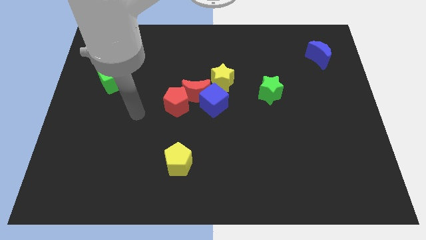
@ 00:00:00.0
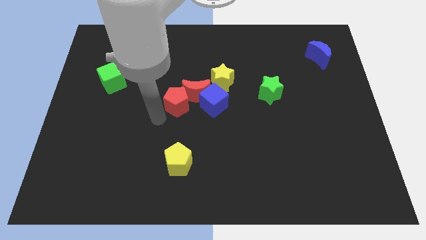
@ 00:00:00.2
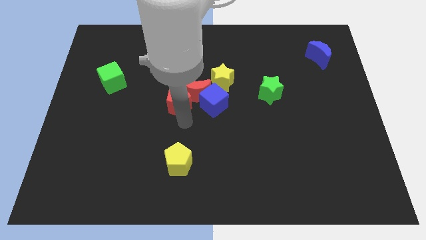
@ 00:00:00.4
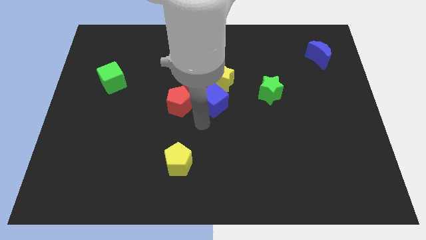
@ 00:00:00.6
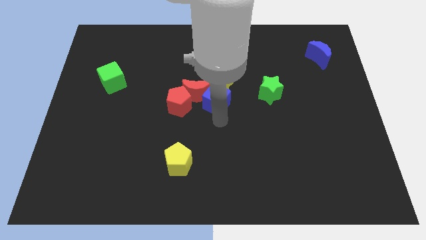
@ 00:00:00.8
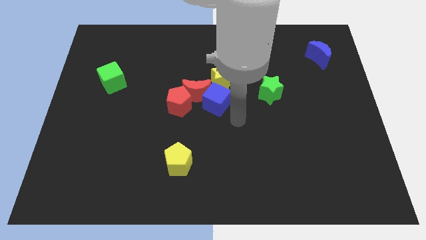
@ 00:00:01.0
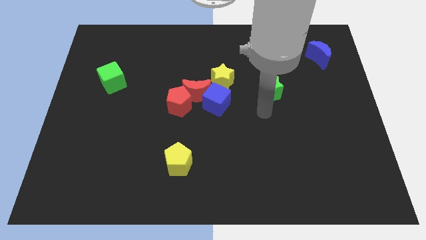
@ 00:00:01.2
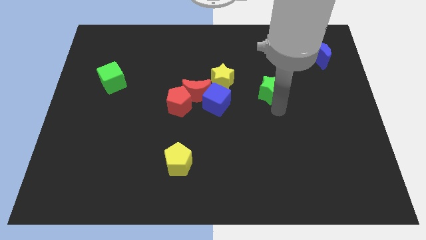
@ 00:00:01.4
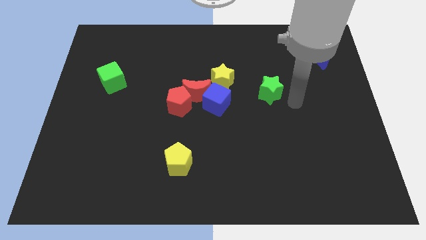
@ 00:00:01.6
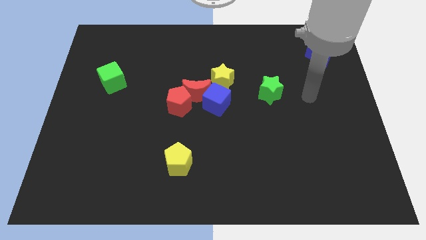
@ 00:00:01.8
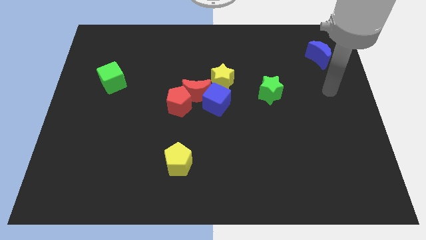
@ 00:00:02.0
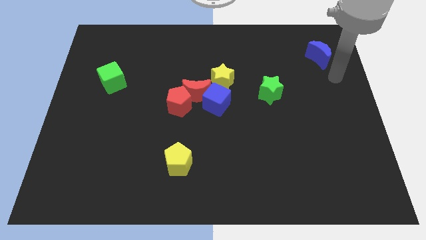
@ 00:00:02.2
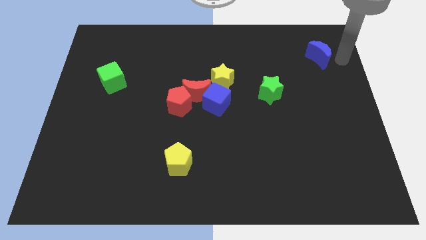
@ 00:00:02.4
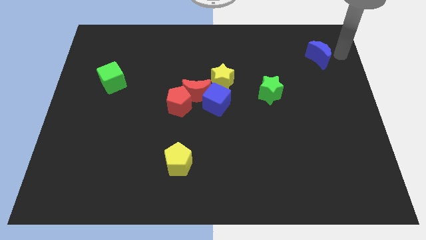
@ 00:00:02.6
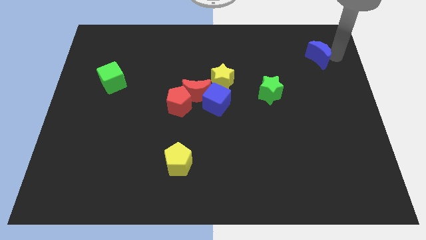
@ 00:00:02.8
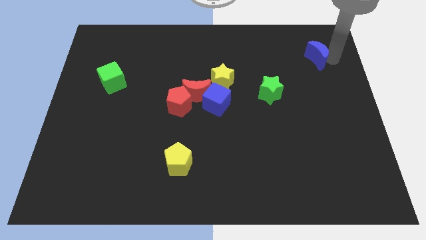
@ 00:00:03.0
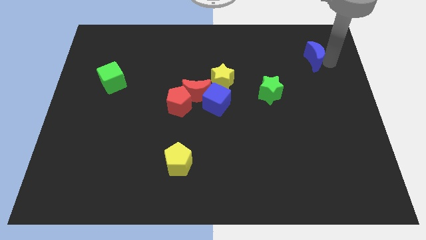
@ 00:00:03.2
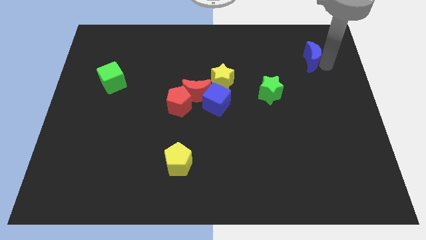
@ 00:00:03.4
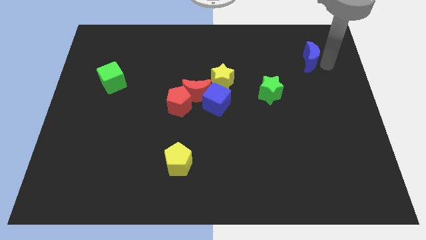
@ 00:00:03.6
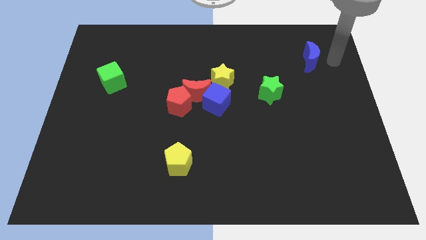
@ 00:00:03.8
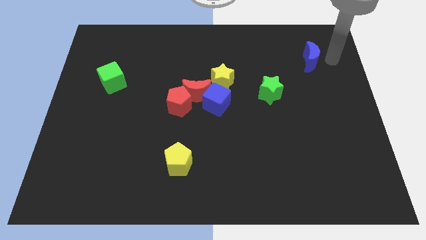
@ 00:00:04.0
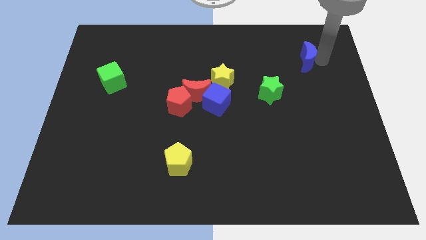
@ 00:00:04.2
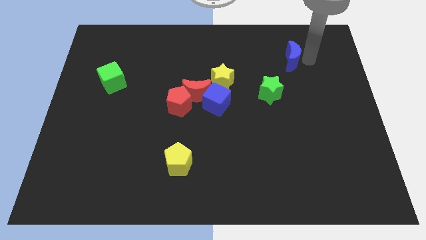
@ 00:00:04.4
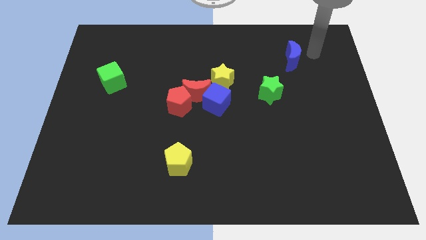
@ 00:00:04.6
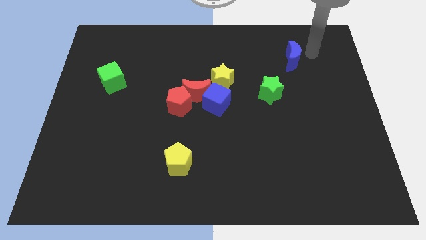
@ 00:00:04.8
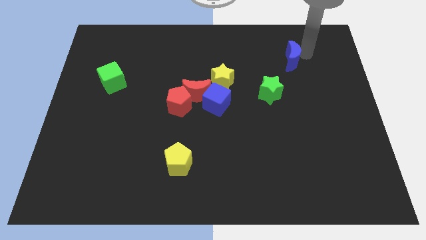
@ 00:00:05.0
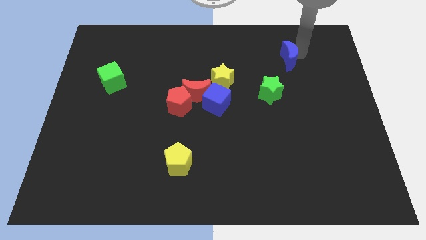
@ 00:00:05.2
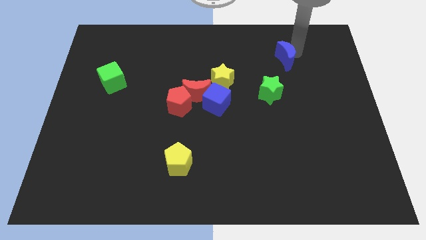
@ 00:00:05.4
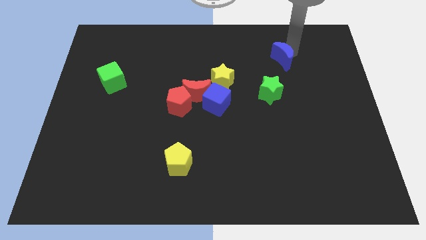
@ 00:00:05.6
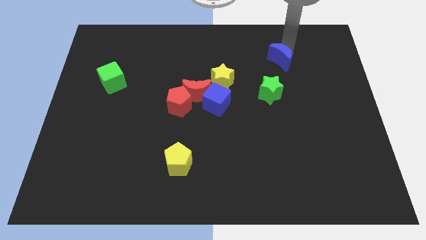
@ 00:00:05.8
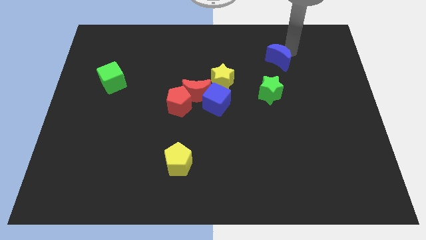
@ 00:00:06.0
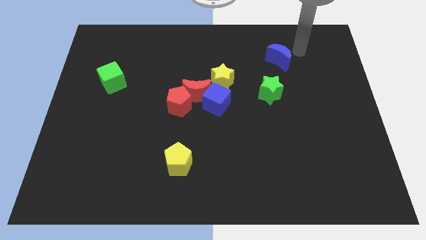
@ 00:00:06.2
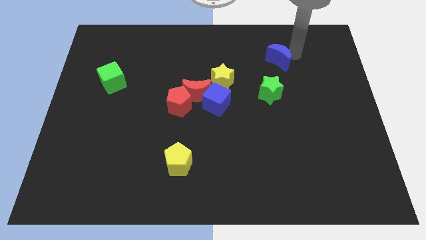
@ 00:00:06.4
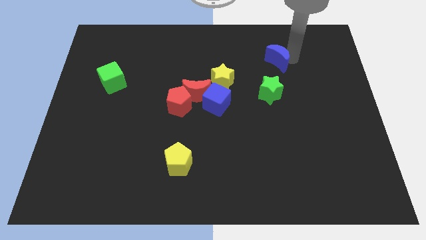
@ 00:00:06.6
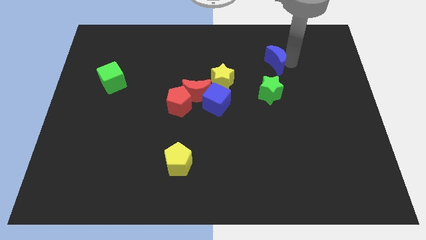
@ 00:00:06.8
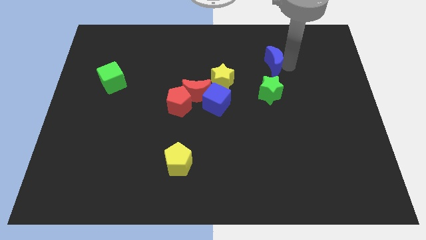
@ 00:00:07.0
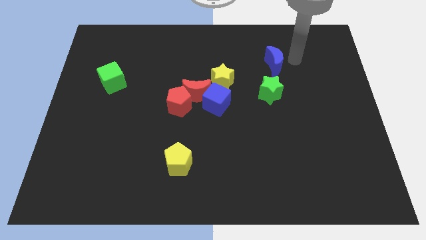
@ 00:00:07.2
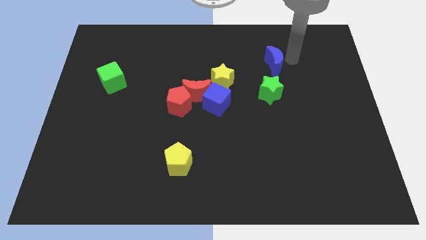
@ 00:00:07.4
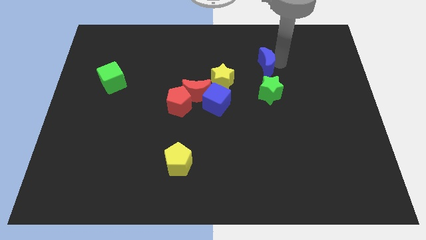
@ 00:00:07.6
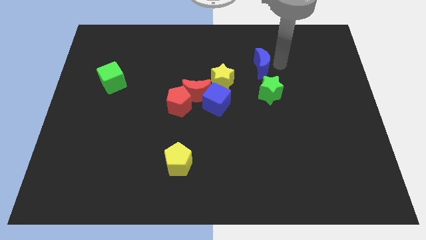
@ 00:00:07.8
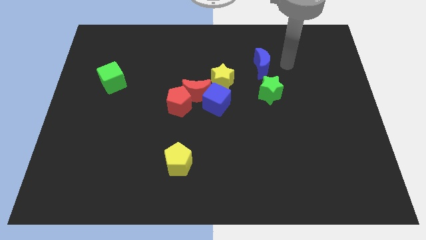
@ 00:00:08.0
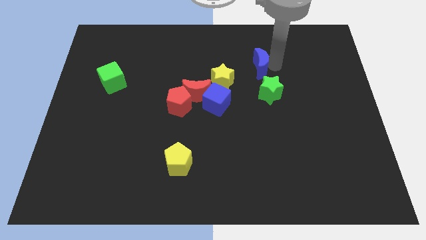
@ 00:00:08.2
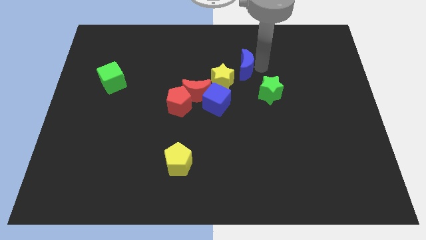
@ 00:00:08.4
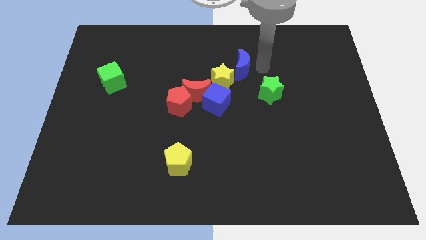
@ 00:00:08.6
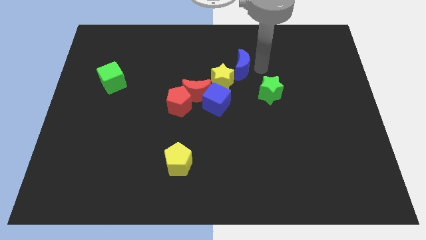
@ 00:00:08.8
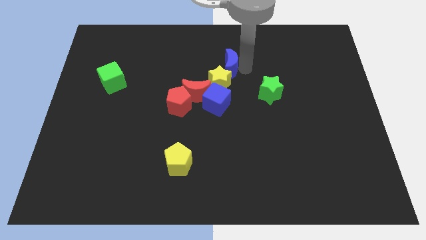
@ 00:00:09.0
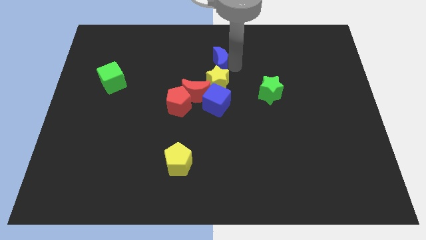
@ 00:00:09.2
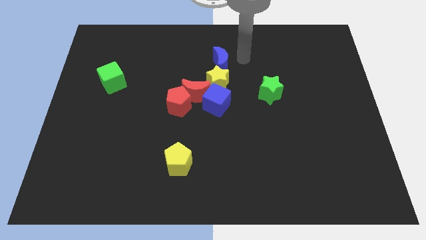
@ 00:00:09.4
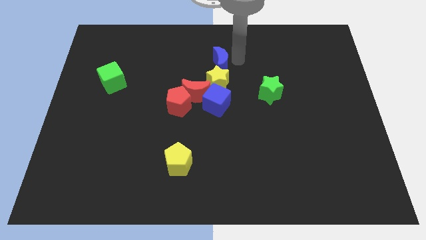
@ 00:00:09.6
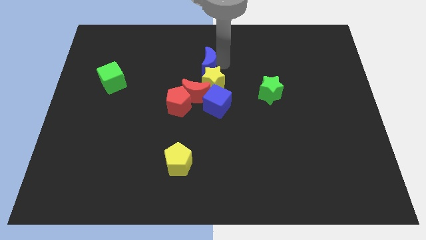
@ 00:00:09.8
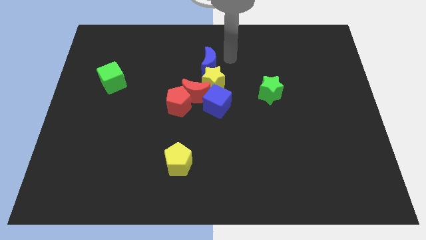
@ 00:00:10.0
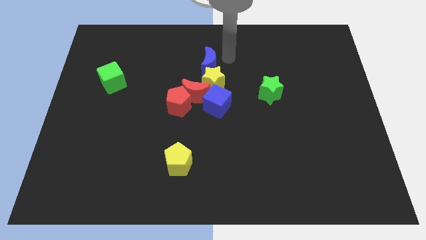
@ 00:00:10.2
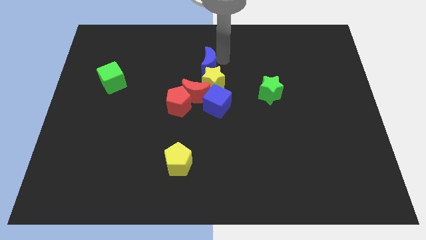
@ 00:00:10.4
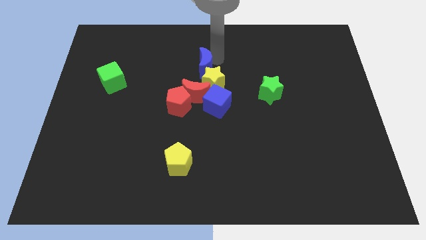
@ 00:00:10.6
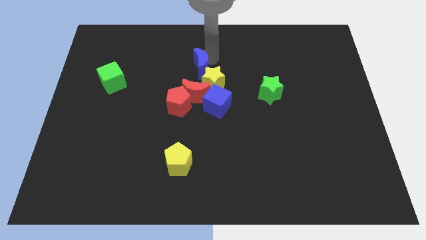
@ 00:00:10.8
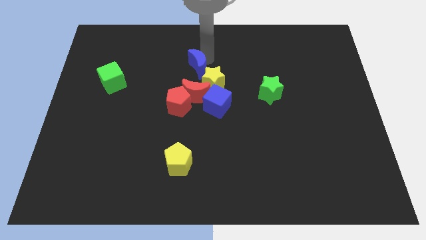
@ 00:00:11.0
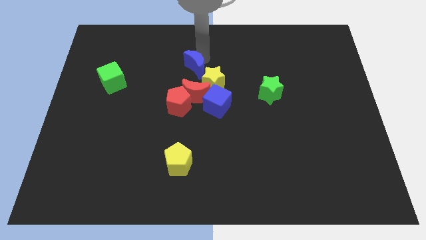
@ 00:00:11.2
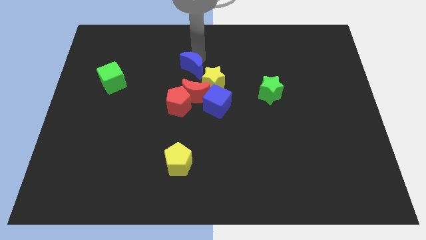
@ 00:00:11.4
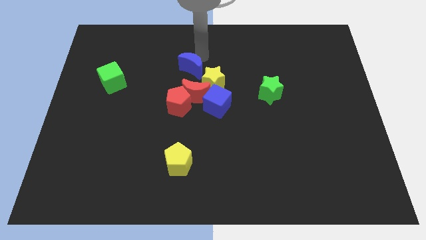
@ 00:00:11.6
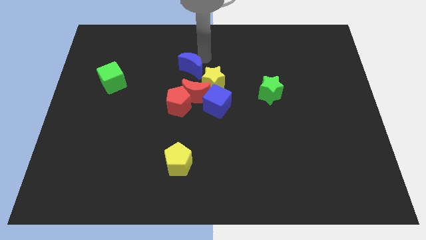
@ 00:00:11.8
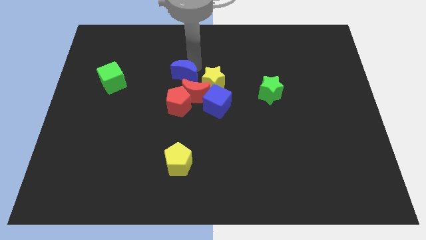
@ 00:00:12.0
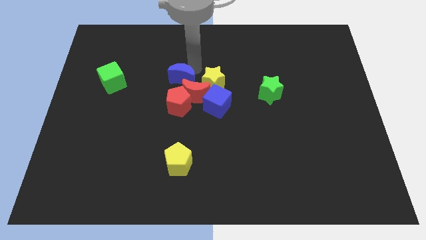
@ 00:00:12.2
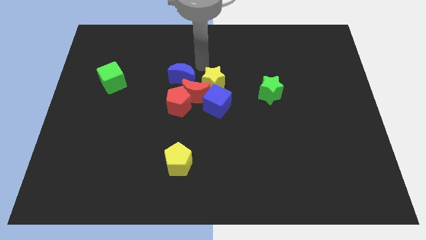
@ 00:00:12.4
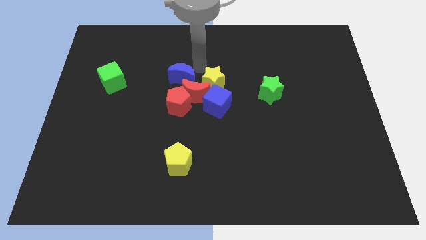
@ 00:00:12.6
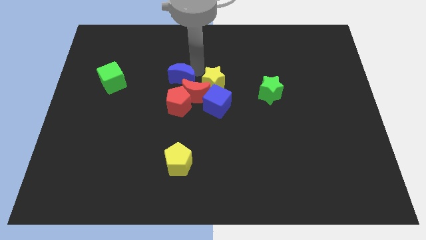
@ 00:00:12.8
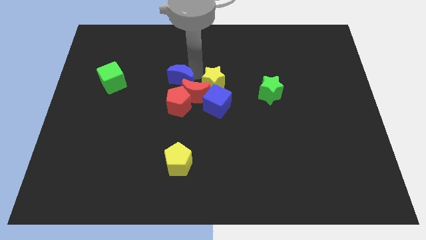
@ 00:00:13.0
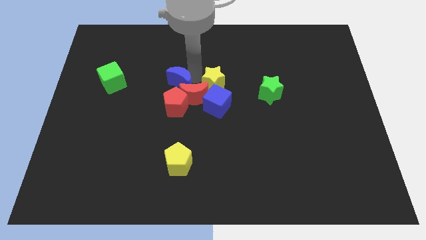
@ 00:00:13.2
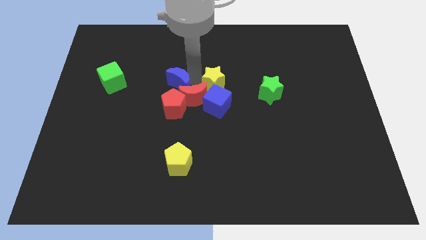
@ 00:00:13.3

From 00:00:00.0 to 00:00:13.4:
slide the blue moon left of the red moon

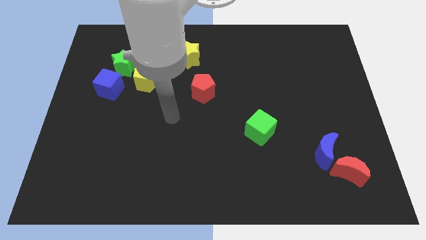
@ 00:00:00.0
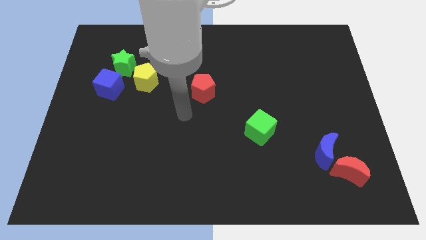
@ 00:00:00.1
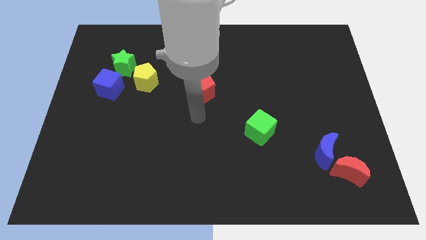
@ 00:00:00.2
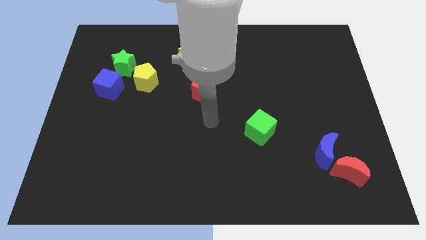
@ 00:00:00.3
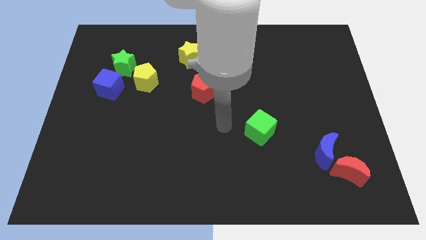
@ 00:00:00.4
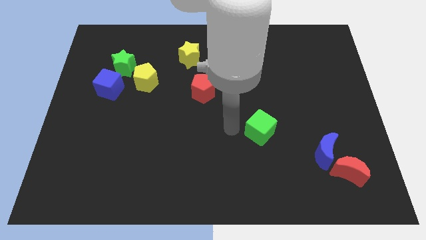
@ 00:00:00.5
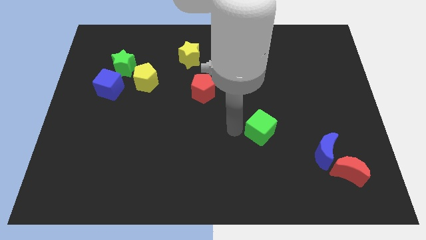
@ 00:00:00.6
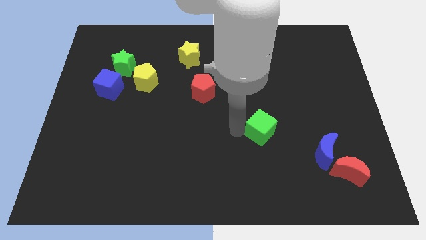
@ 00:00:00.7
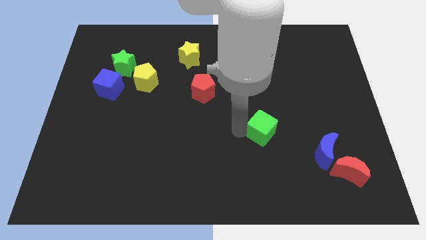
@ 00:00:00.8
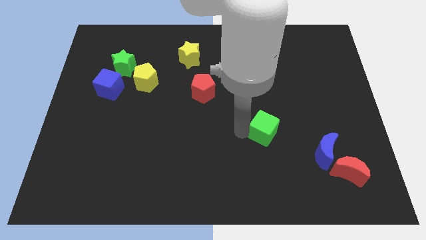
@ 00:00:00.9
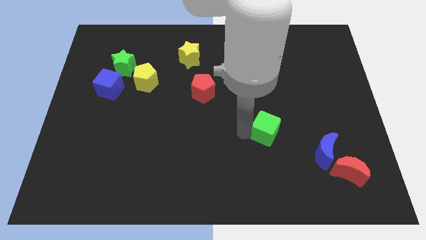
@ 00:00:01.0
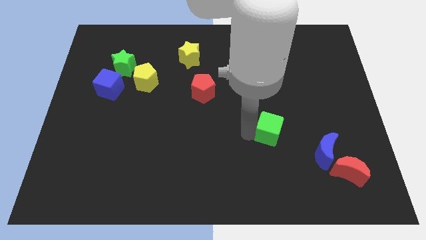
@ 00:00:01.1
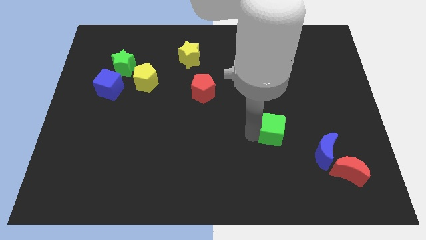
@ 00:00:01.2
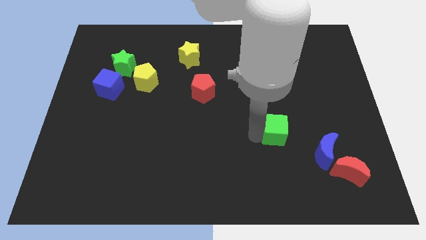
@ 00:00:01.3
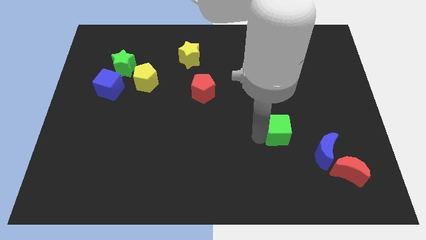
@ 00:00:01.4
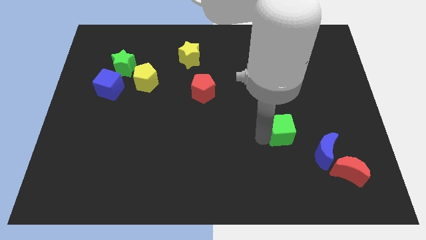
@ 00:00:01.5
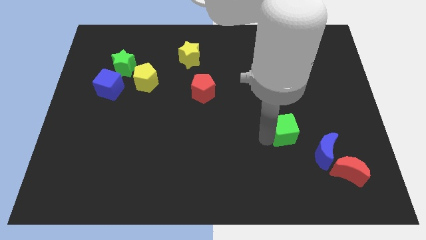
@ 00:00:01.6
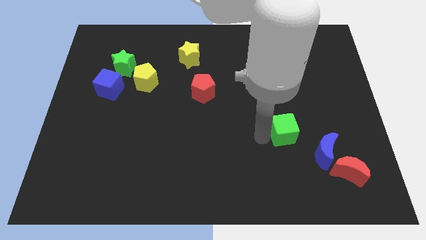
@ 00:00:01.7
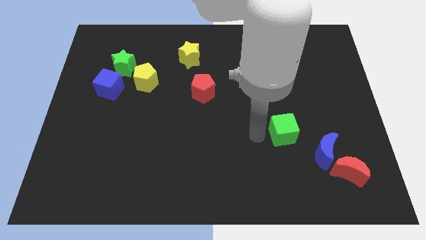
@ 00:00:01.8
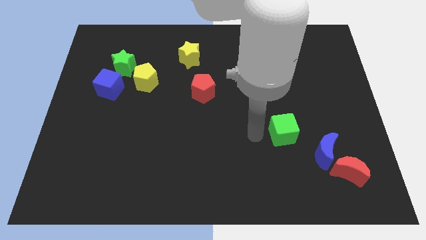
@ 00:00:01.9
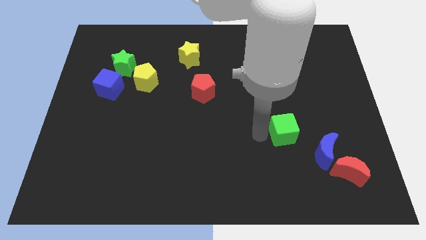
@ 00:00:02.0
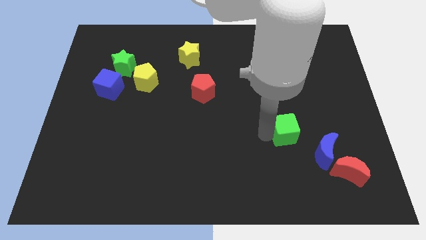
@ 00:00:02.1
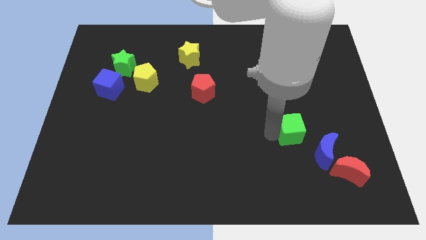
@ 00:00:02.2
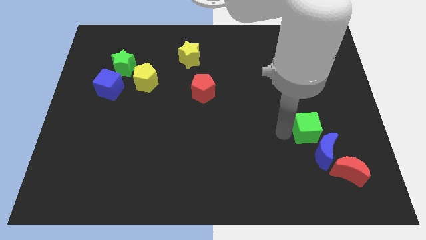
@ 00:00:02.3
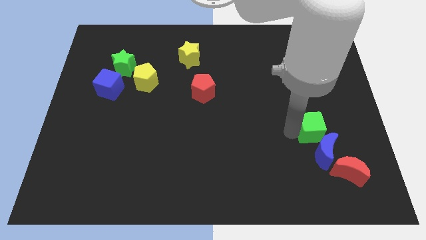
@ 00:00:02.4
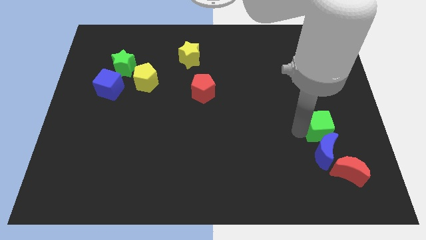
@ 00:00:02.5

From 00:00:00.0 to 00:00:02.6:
put the green cube to the top of the red moon
